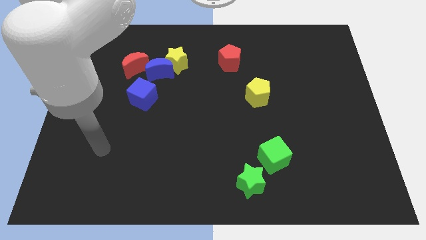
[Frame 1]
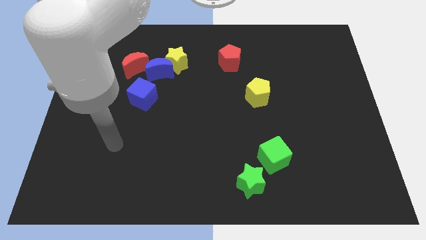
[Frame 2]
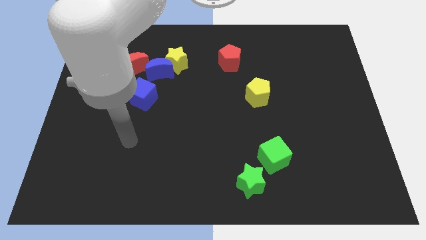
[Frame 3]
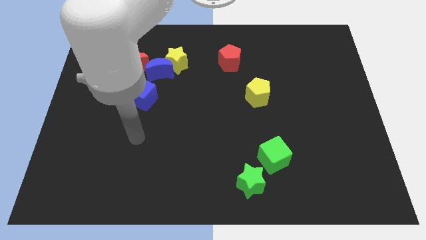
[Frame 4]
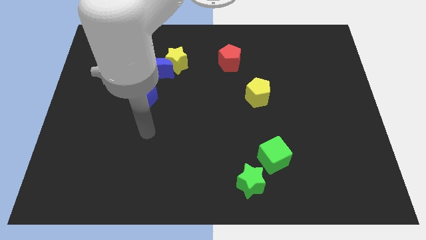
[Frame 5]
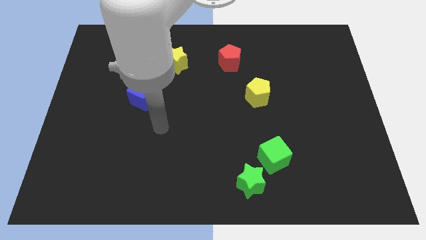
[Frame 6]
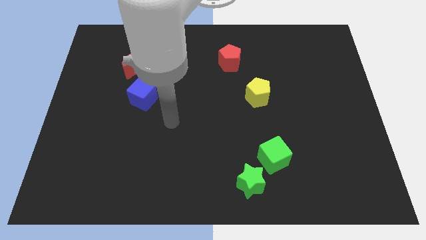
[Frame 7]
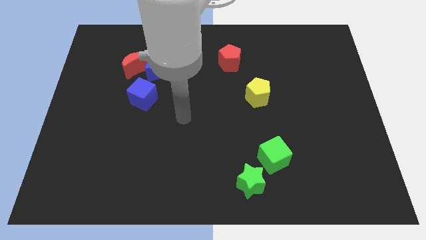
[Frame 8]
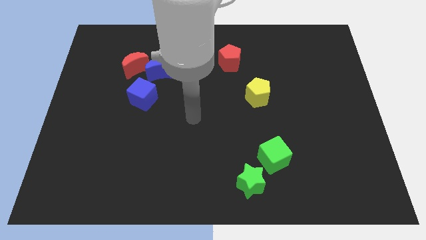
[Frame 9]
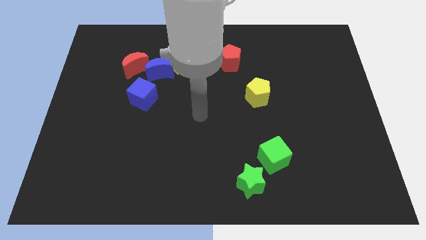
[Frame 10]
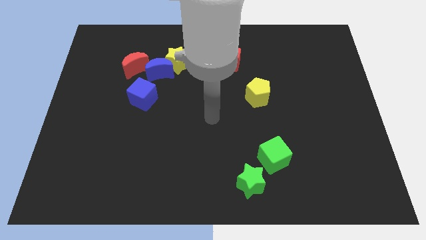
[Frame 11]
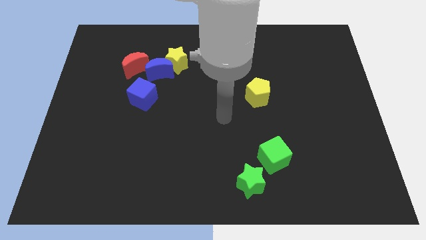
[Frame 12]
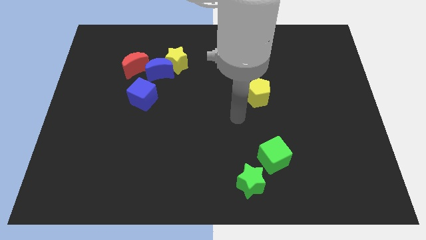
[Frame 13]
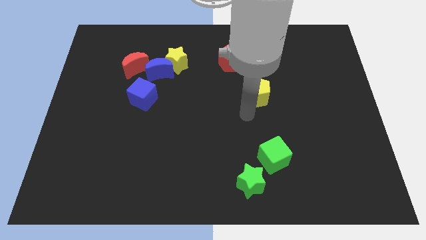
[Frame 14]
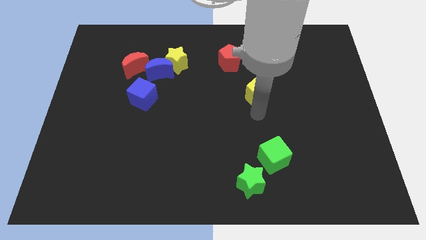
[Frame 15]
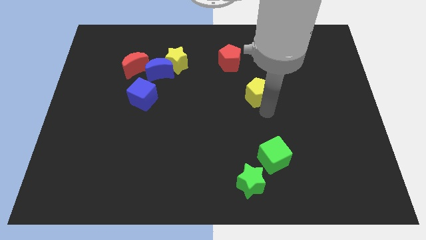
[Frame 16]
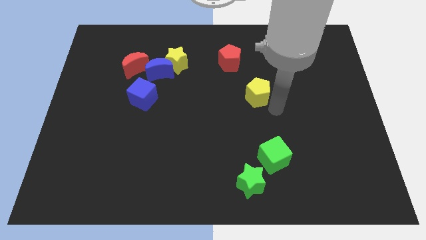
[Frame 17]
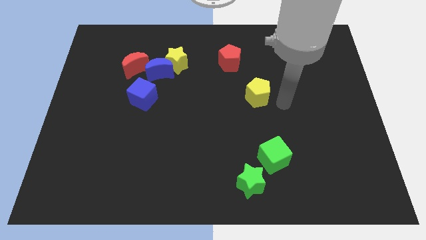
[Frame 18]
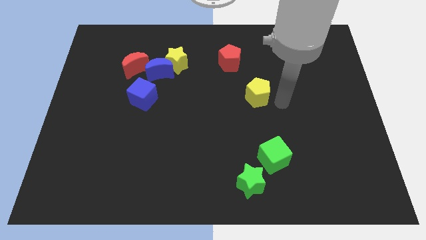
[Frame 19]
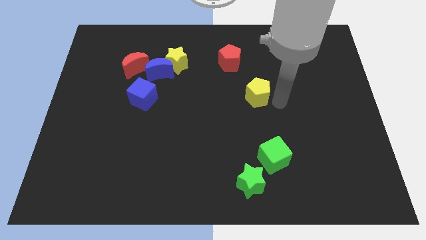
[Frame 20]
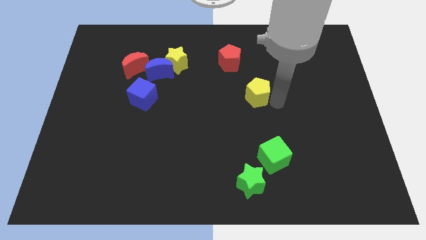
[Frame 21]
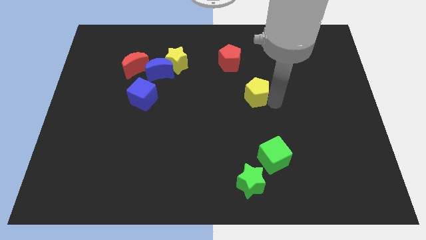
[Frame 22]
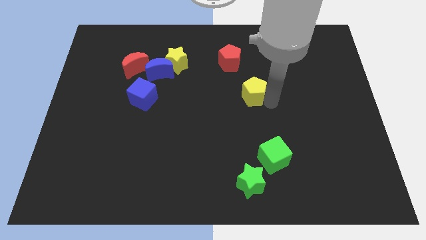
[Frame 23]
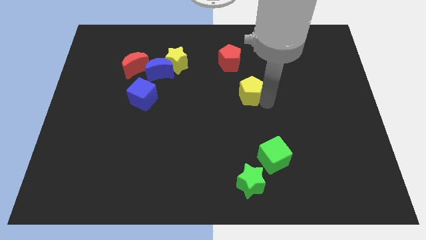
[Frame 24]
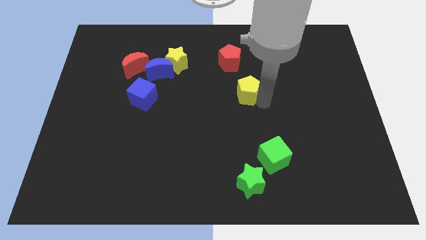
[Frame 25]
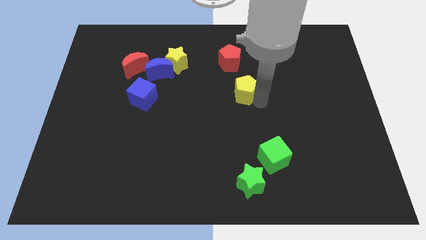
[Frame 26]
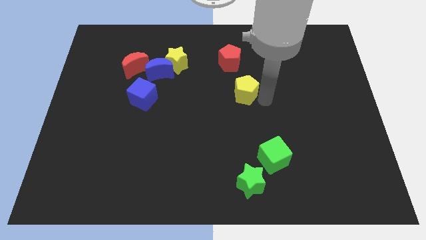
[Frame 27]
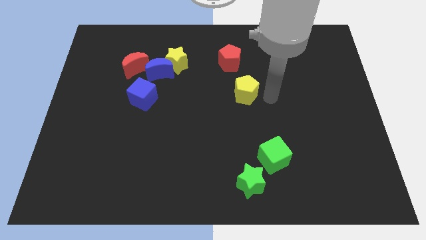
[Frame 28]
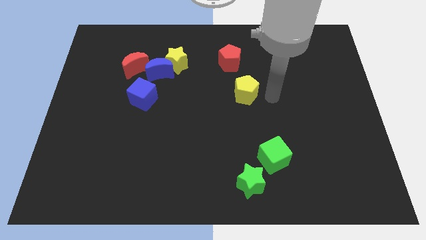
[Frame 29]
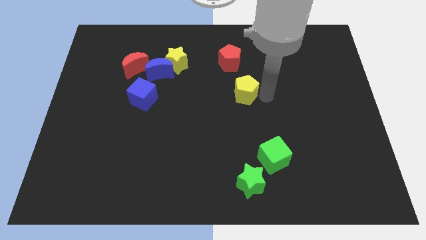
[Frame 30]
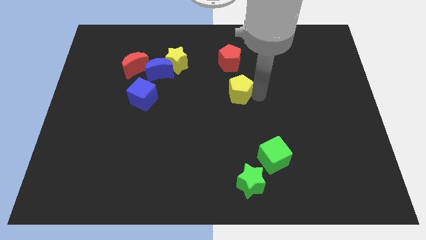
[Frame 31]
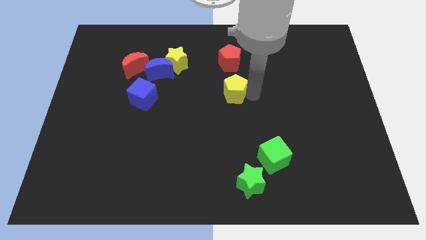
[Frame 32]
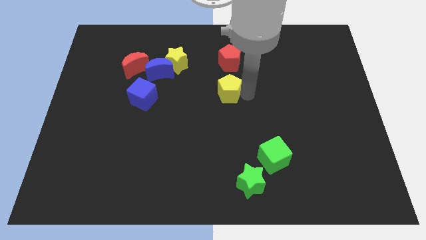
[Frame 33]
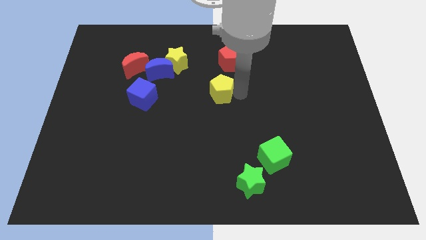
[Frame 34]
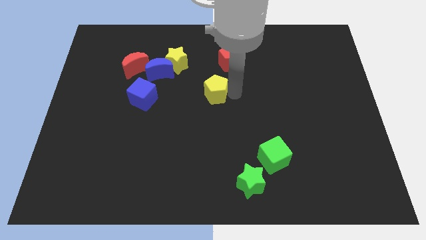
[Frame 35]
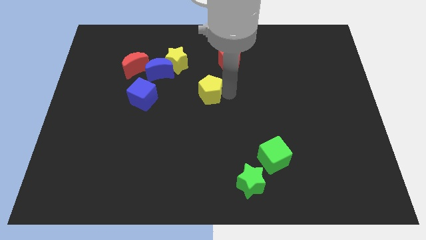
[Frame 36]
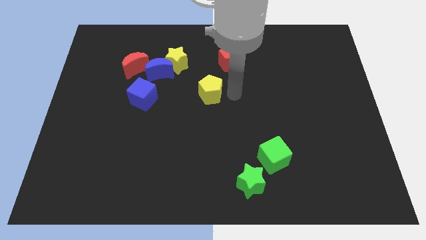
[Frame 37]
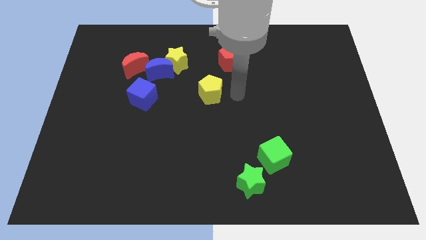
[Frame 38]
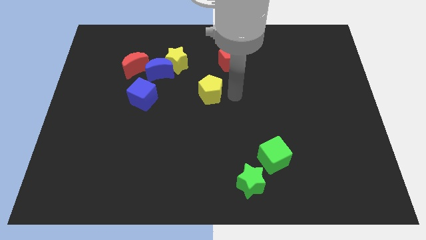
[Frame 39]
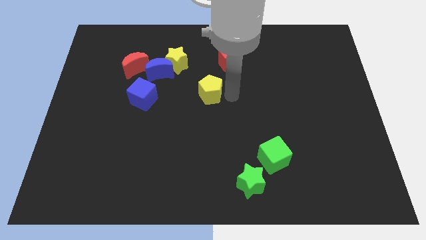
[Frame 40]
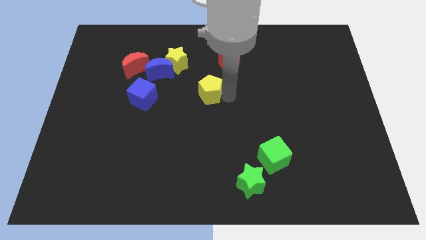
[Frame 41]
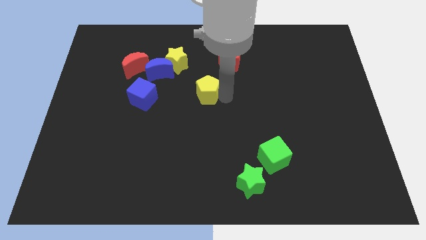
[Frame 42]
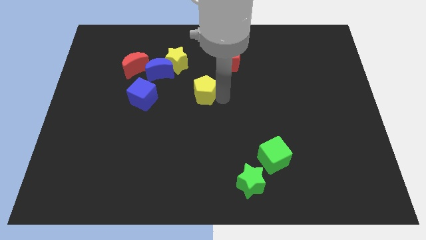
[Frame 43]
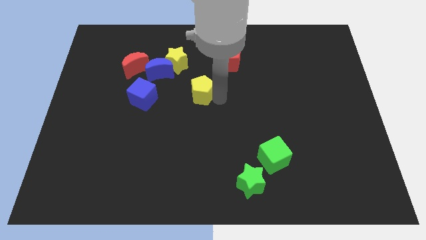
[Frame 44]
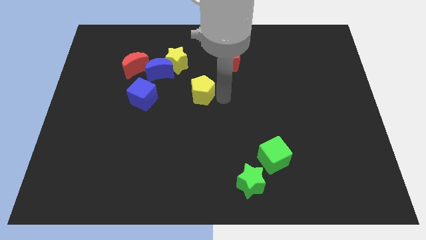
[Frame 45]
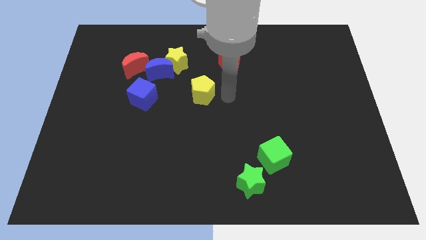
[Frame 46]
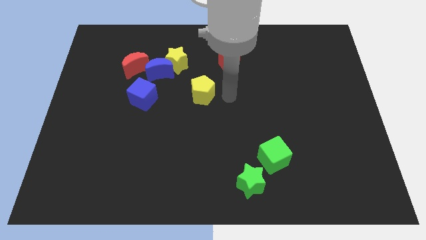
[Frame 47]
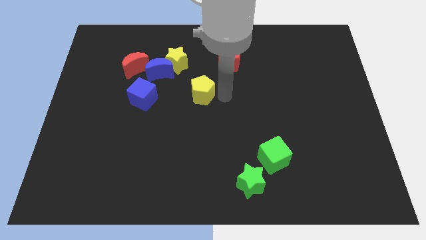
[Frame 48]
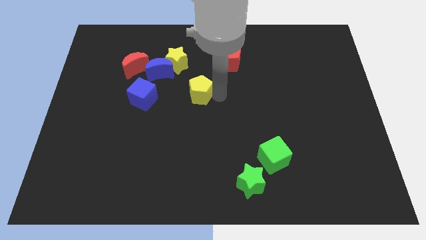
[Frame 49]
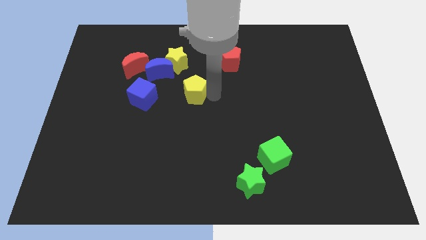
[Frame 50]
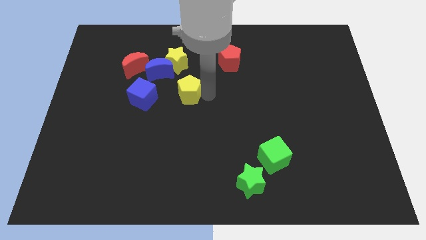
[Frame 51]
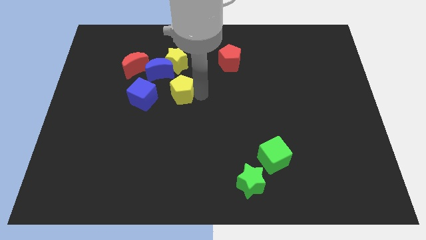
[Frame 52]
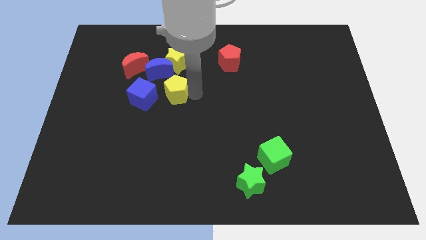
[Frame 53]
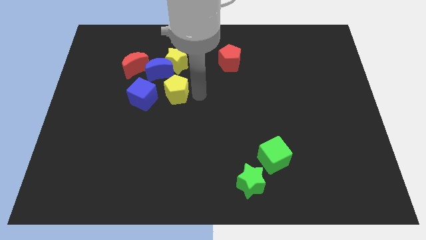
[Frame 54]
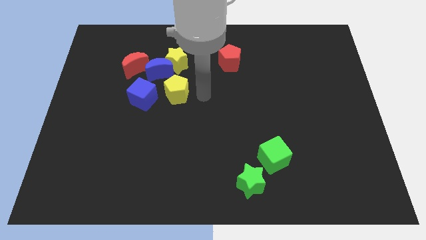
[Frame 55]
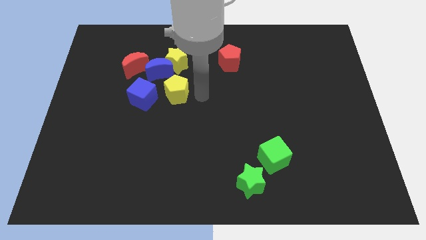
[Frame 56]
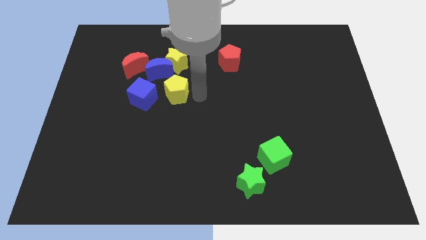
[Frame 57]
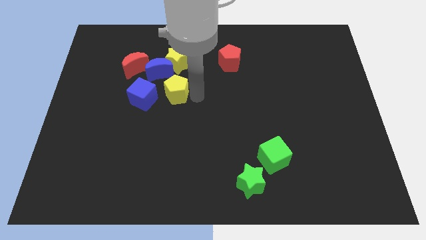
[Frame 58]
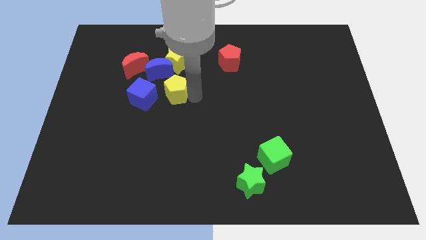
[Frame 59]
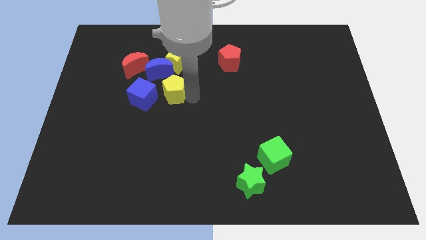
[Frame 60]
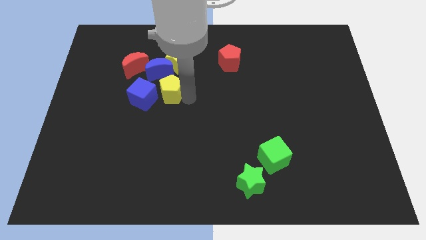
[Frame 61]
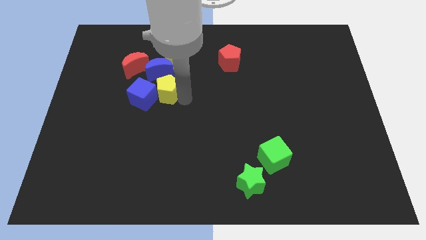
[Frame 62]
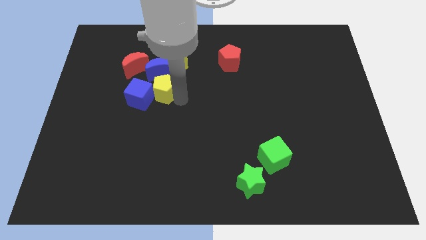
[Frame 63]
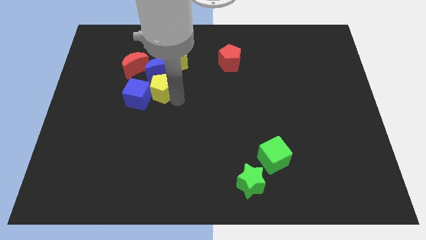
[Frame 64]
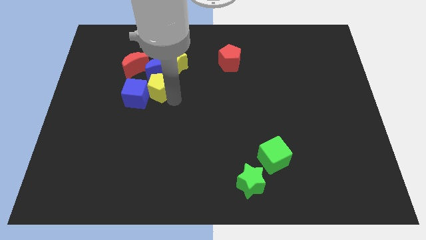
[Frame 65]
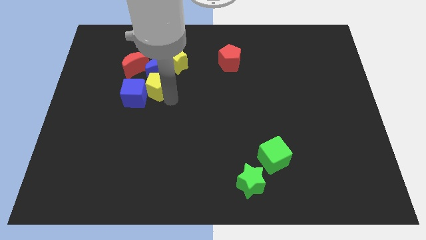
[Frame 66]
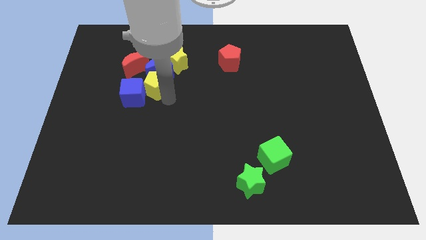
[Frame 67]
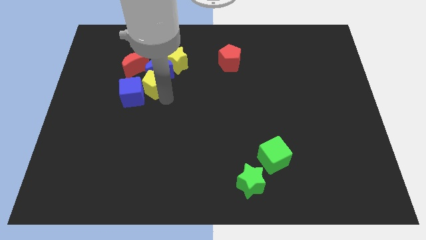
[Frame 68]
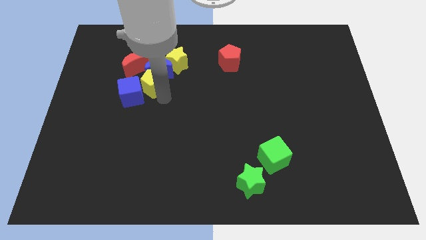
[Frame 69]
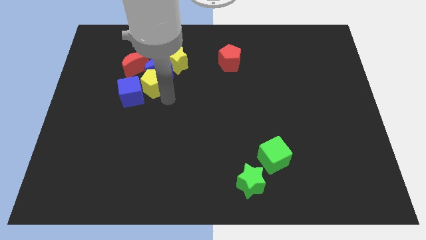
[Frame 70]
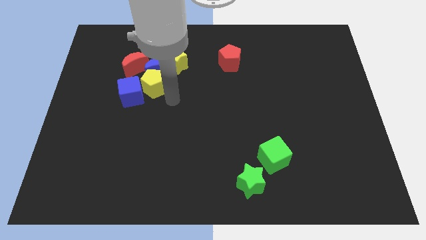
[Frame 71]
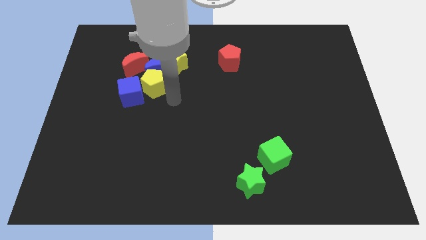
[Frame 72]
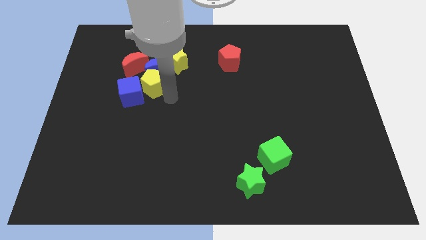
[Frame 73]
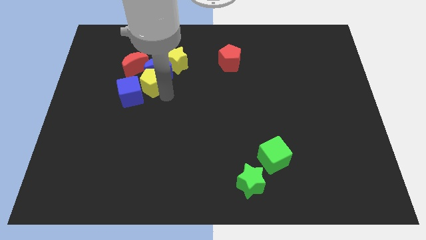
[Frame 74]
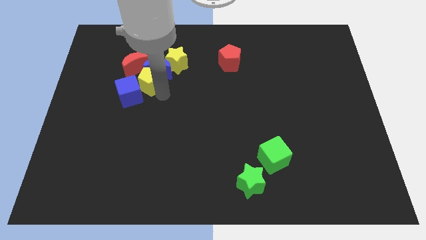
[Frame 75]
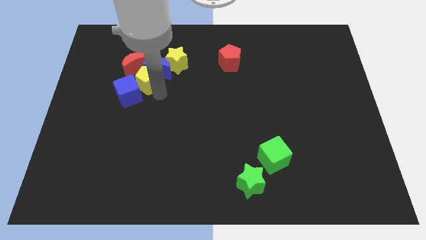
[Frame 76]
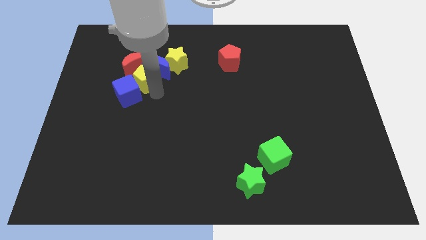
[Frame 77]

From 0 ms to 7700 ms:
put the yellow pentagon close to the red moon
